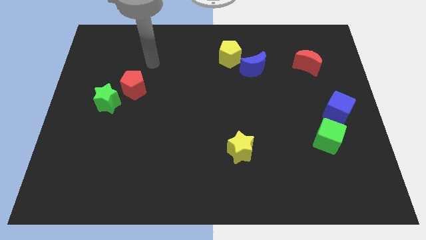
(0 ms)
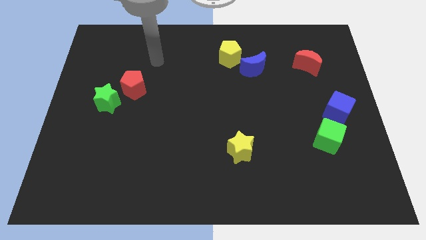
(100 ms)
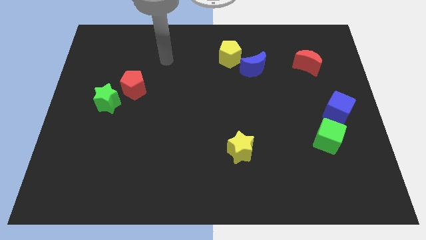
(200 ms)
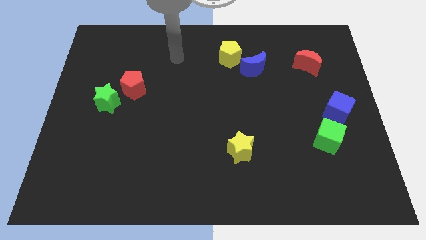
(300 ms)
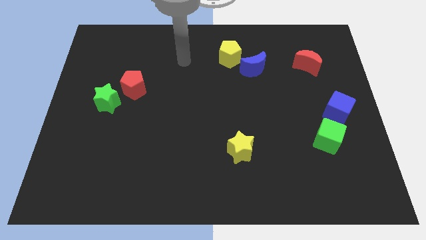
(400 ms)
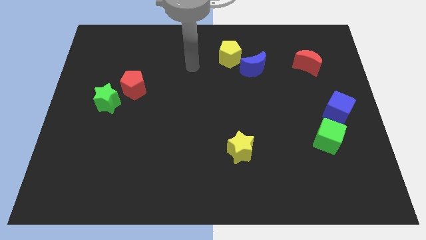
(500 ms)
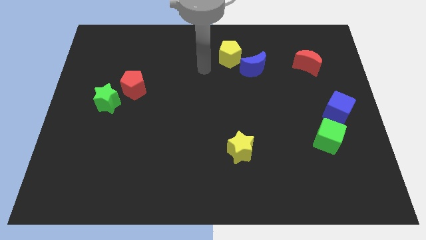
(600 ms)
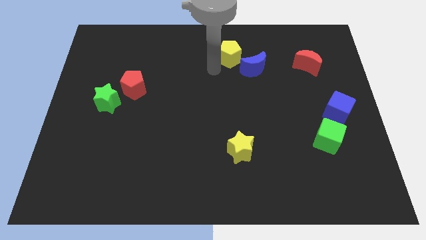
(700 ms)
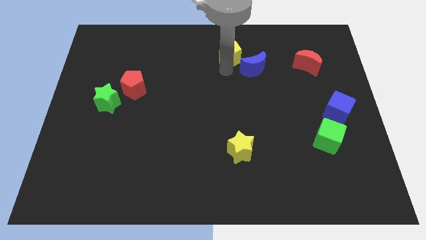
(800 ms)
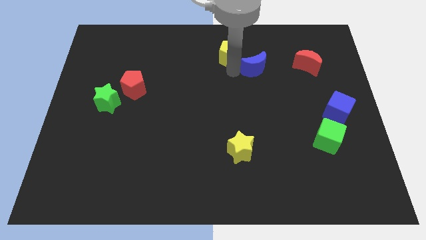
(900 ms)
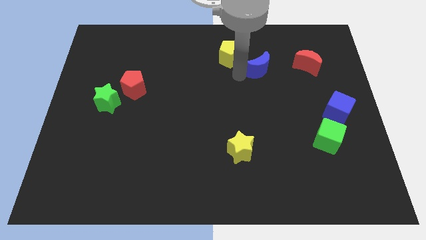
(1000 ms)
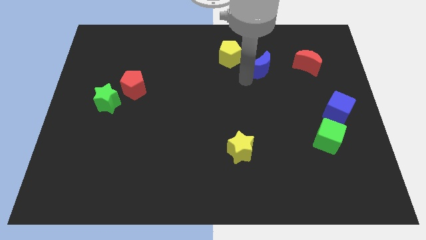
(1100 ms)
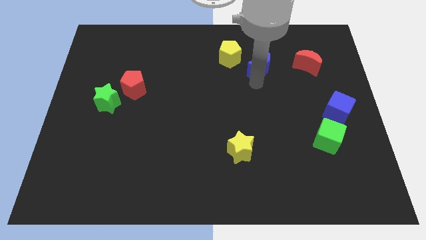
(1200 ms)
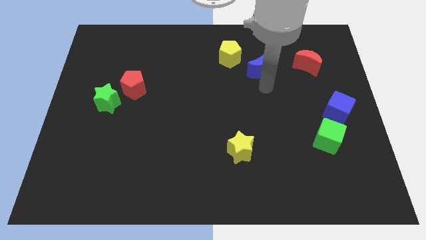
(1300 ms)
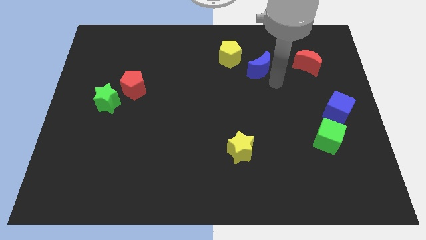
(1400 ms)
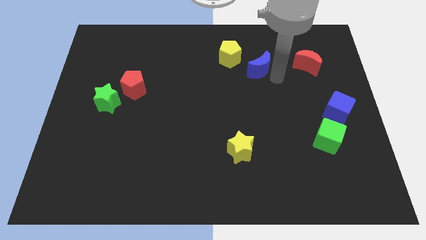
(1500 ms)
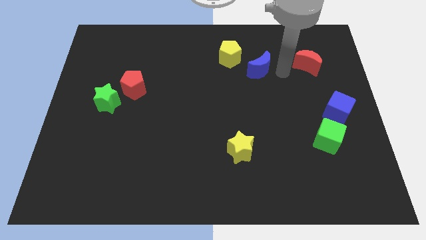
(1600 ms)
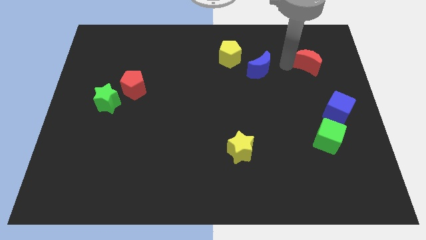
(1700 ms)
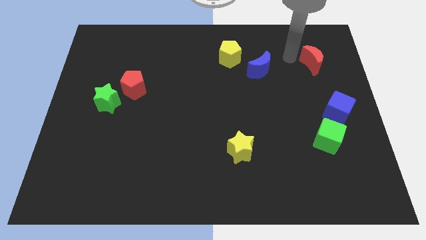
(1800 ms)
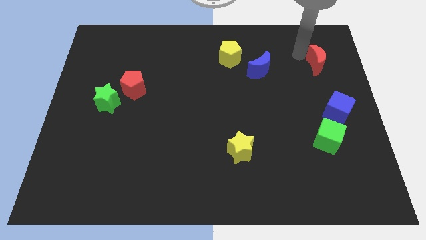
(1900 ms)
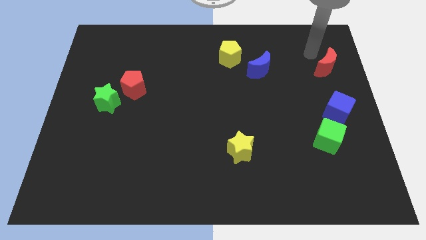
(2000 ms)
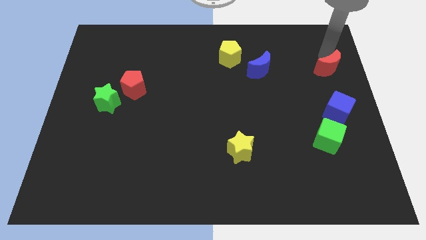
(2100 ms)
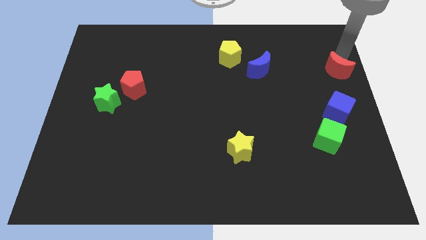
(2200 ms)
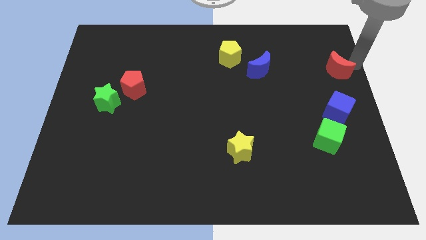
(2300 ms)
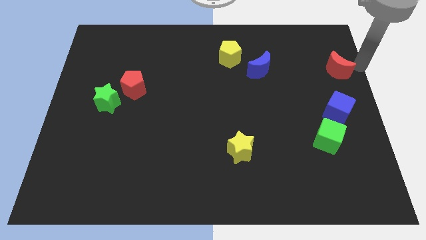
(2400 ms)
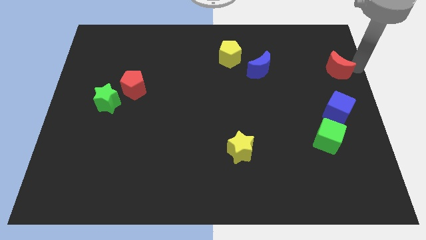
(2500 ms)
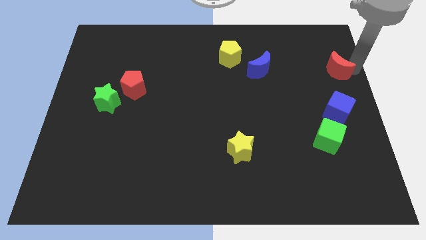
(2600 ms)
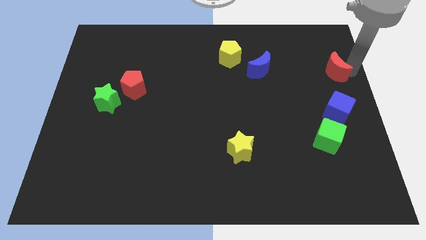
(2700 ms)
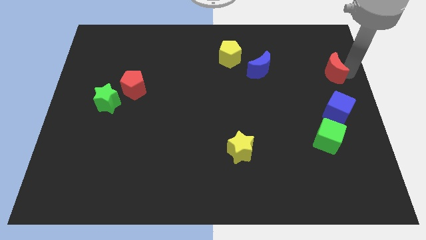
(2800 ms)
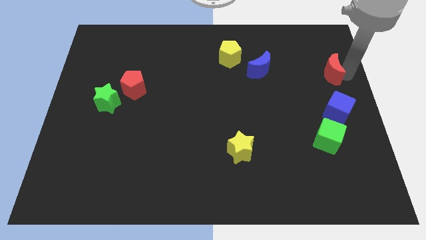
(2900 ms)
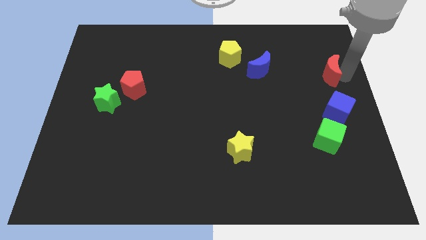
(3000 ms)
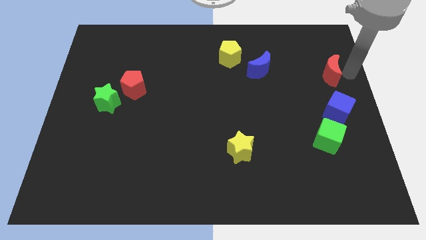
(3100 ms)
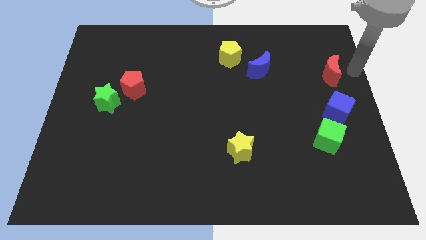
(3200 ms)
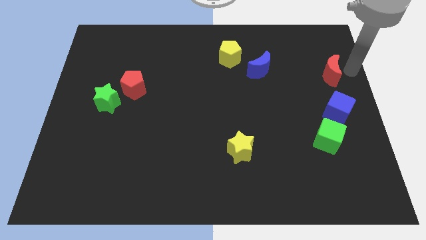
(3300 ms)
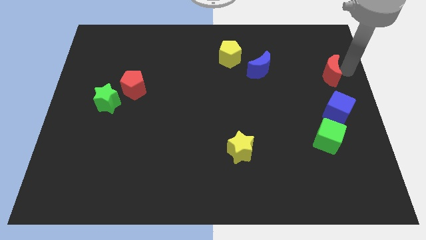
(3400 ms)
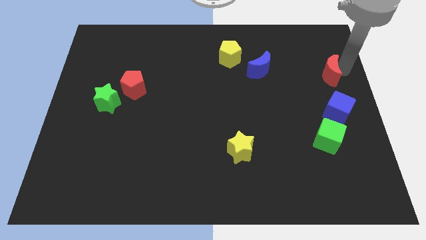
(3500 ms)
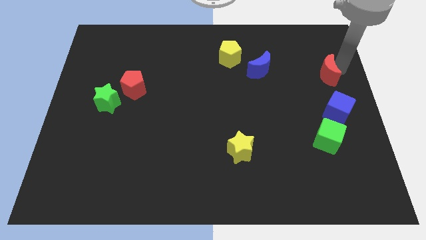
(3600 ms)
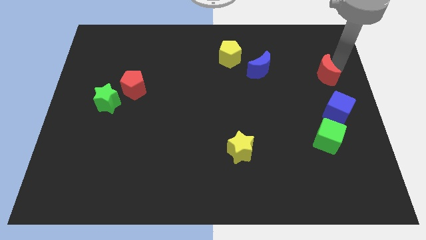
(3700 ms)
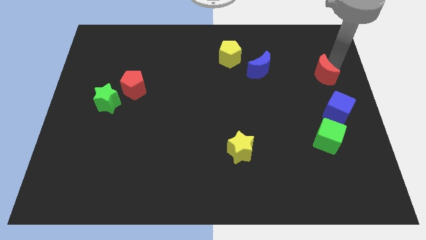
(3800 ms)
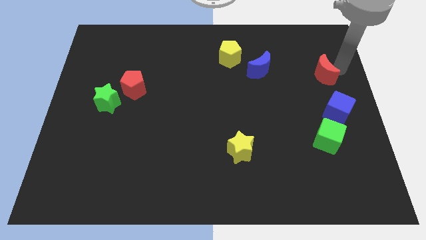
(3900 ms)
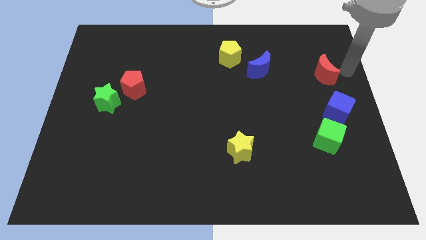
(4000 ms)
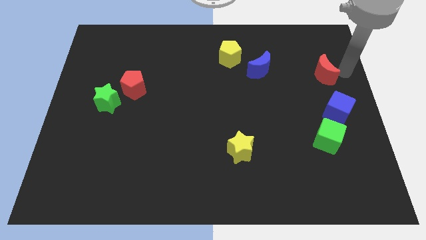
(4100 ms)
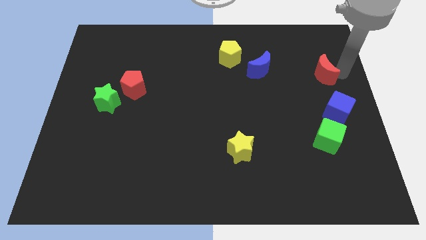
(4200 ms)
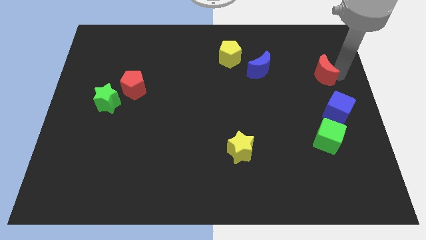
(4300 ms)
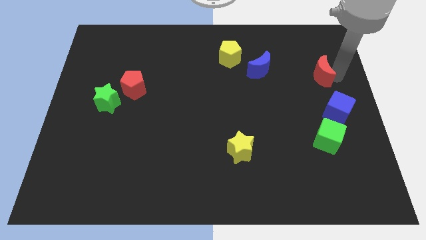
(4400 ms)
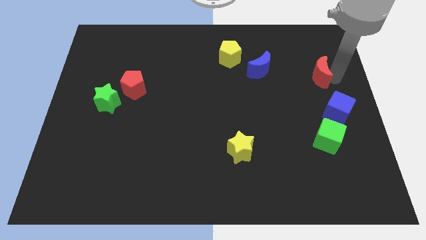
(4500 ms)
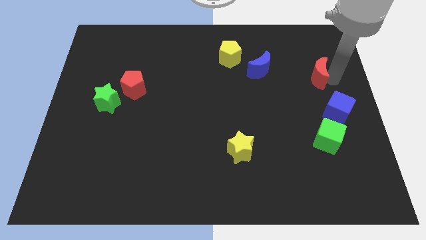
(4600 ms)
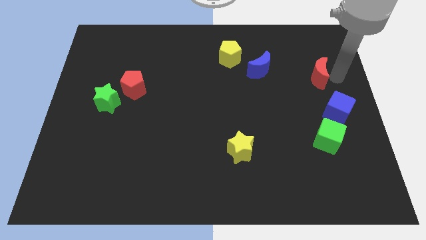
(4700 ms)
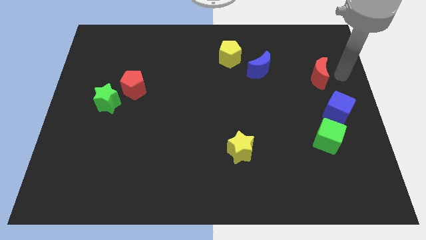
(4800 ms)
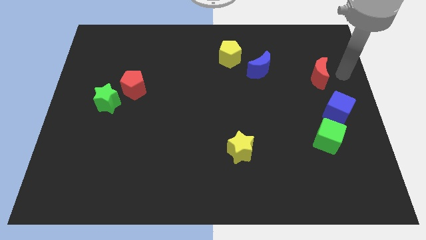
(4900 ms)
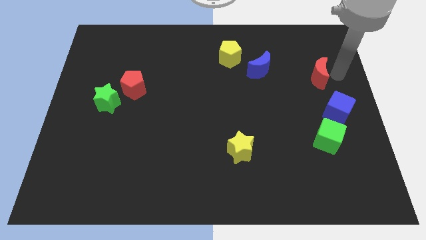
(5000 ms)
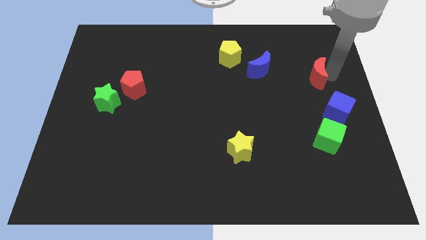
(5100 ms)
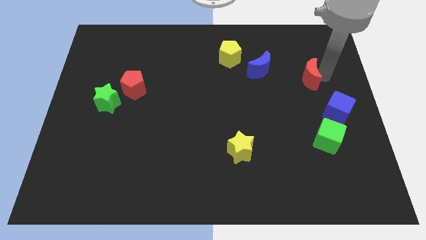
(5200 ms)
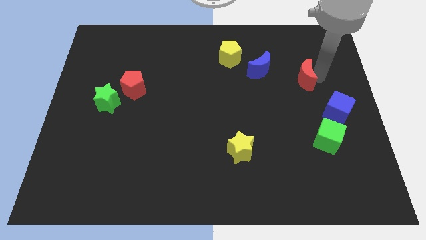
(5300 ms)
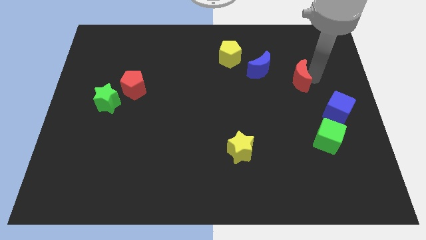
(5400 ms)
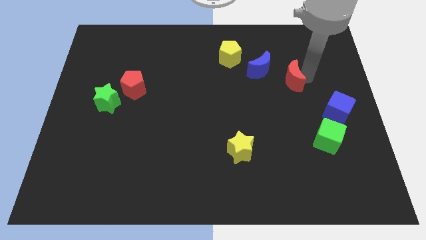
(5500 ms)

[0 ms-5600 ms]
move the red moon down and left a little bit

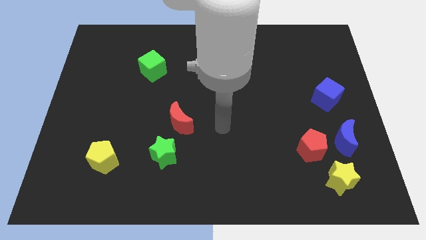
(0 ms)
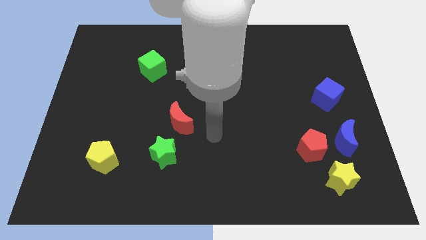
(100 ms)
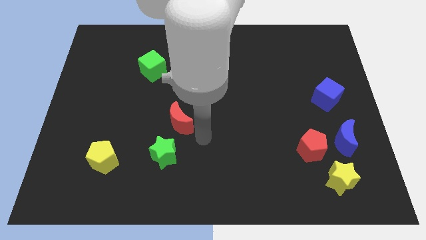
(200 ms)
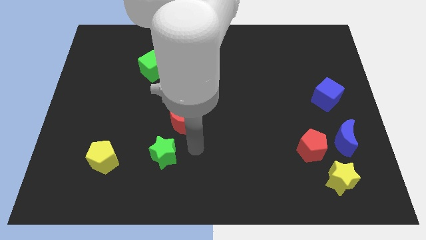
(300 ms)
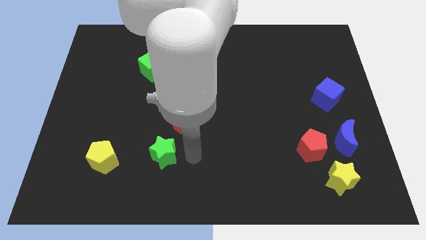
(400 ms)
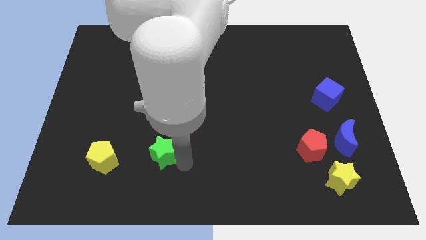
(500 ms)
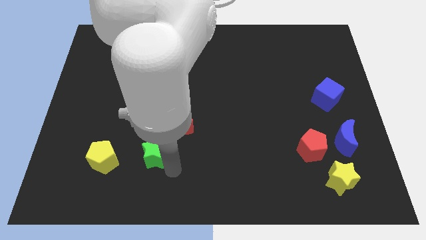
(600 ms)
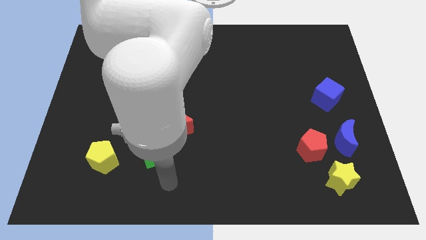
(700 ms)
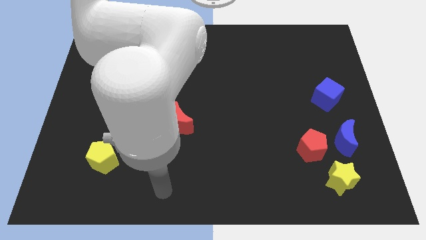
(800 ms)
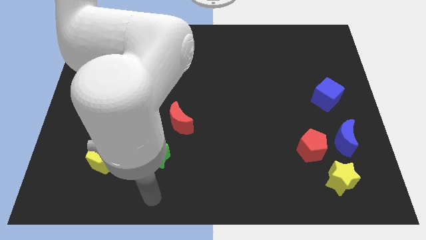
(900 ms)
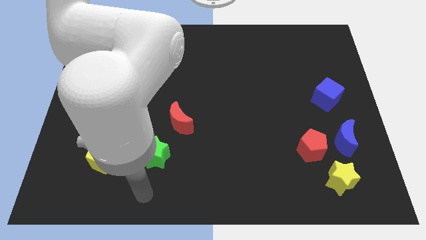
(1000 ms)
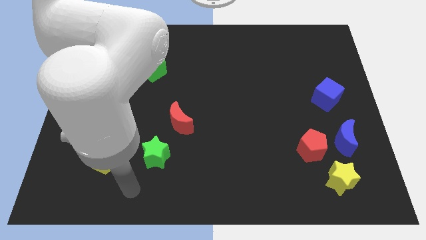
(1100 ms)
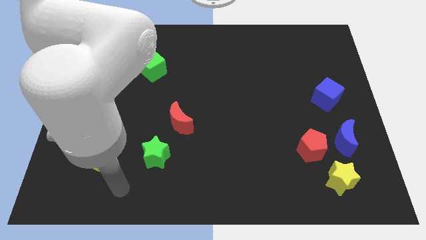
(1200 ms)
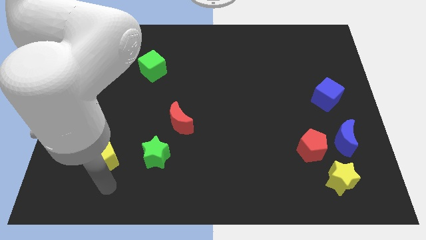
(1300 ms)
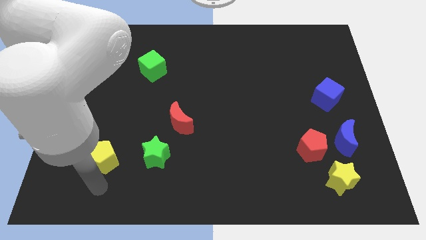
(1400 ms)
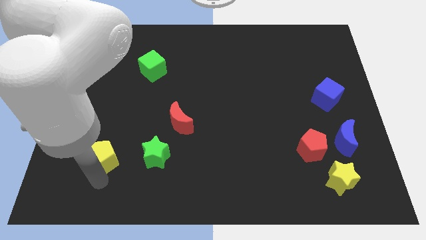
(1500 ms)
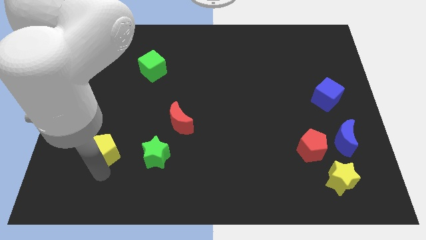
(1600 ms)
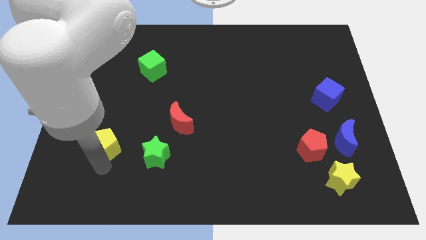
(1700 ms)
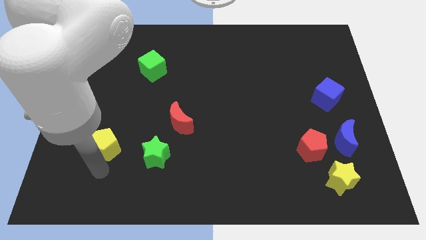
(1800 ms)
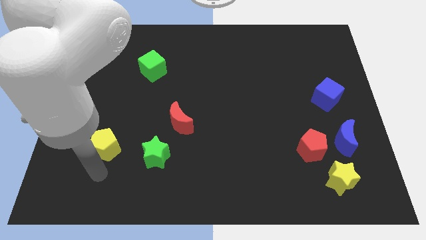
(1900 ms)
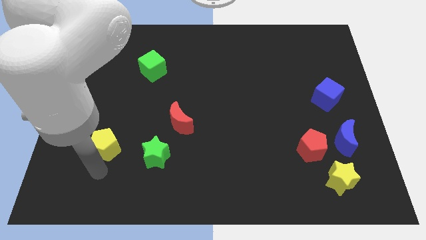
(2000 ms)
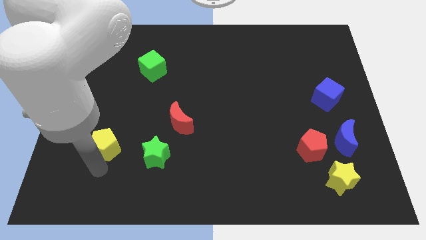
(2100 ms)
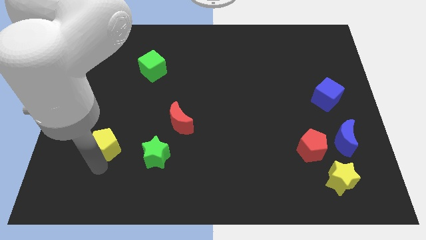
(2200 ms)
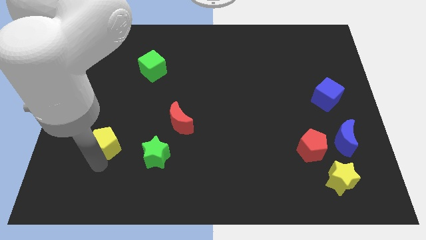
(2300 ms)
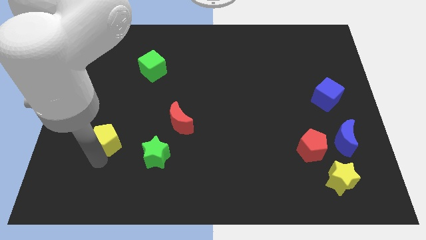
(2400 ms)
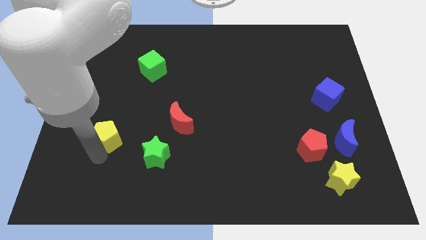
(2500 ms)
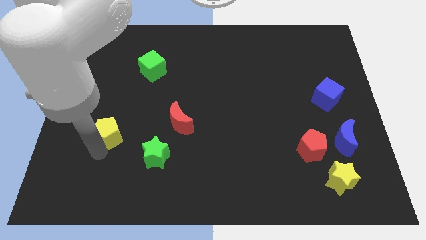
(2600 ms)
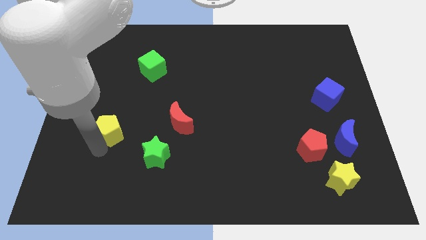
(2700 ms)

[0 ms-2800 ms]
slightly move the yellow pentagon upwards
